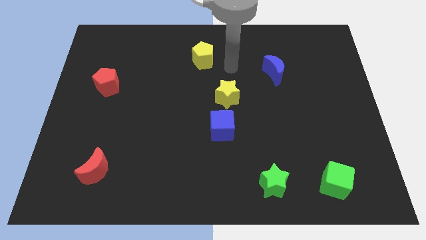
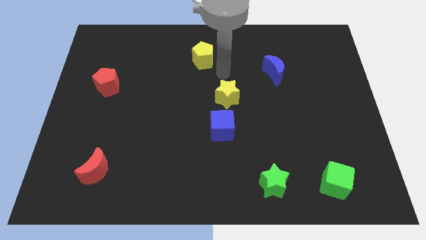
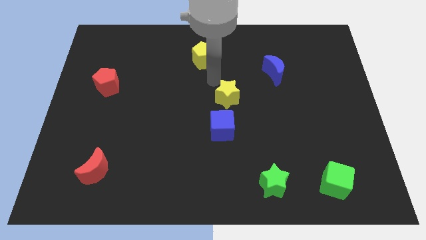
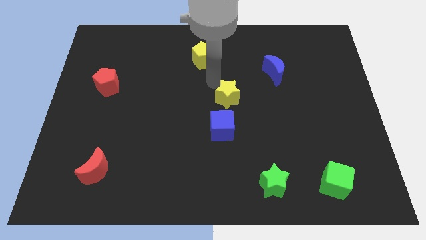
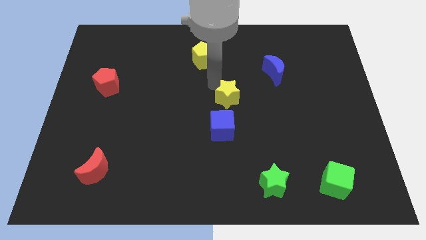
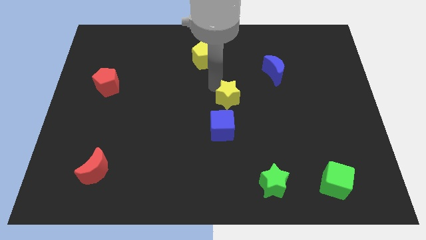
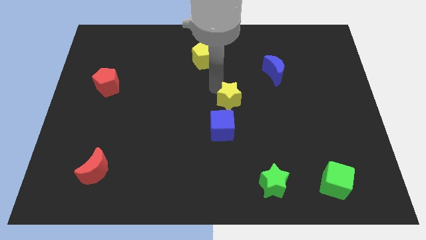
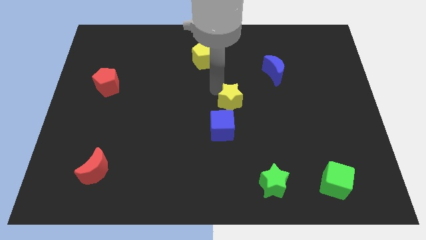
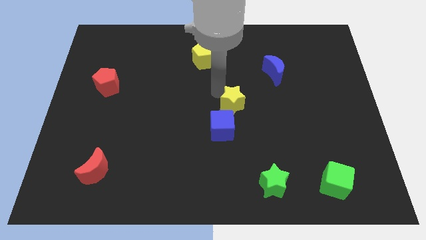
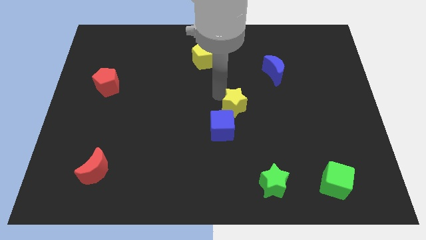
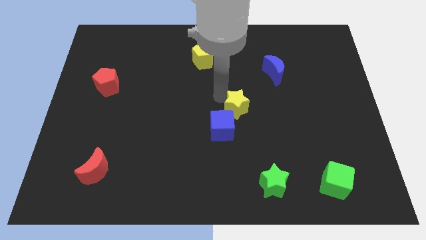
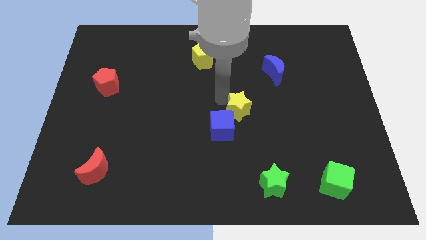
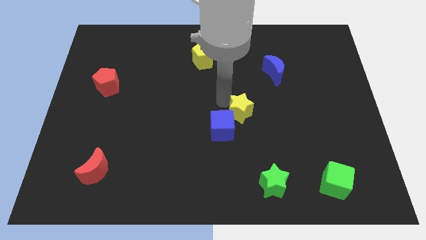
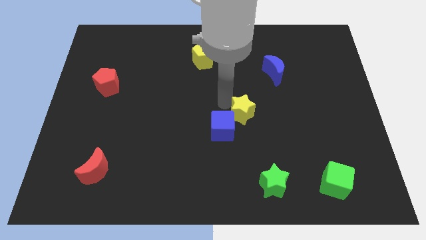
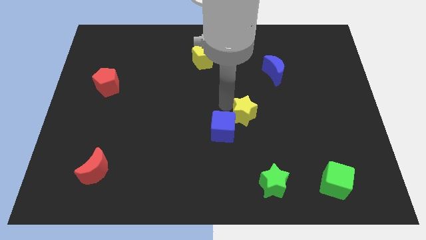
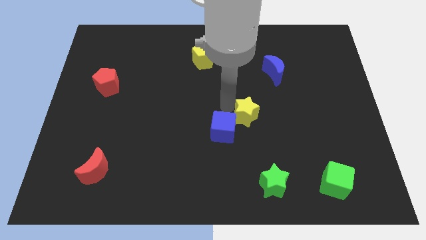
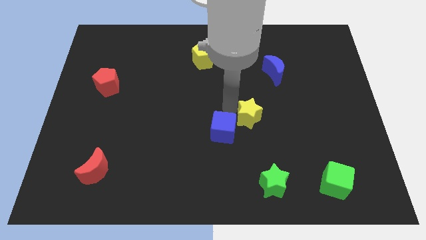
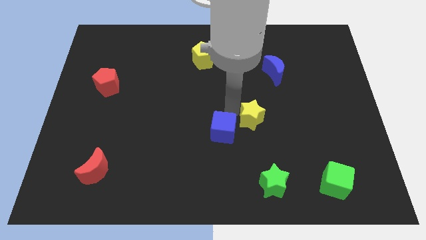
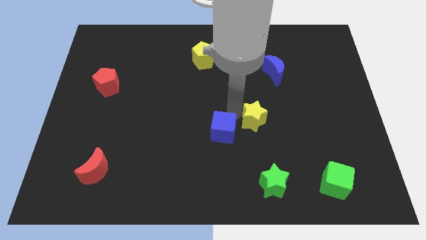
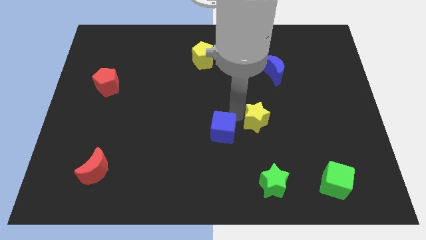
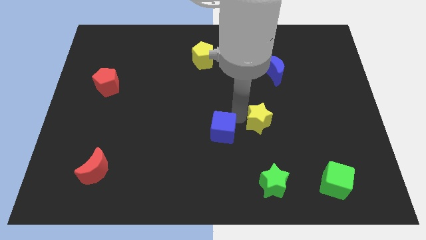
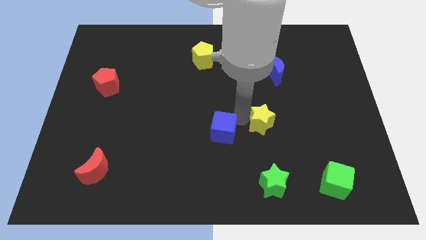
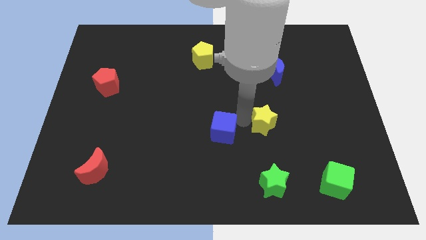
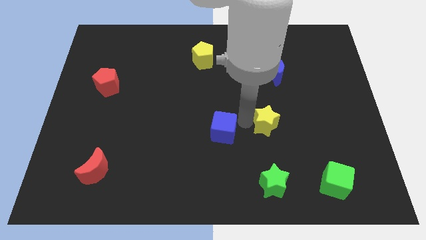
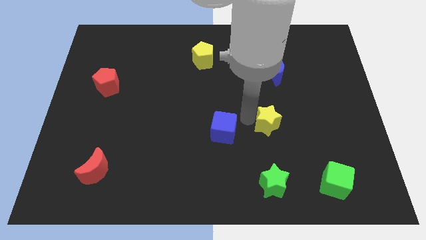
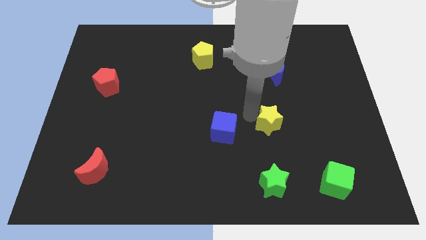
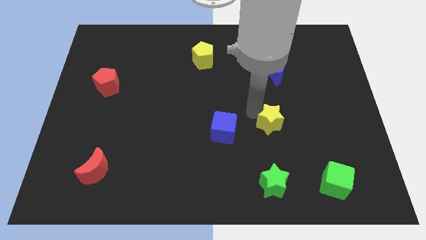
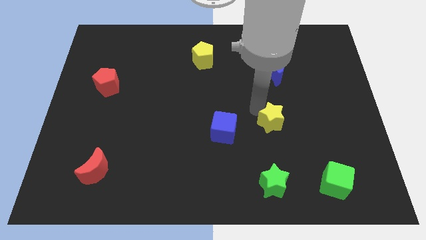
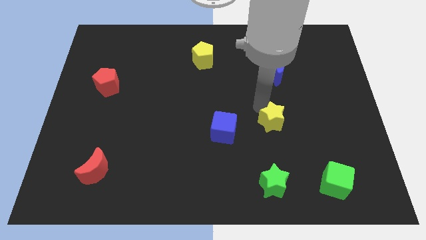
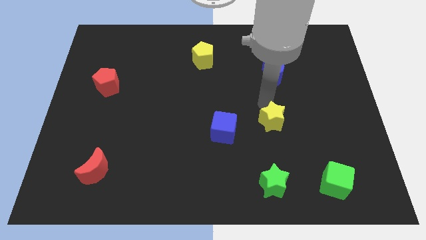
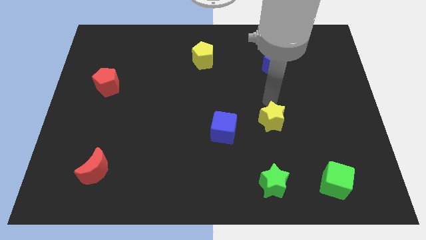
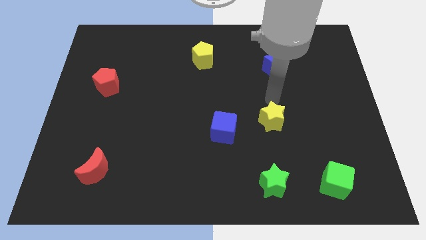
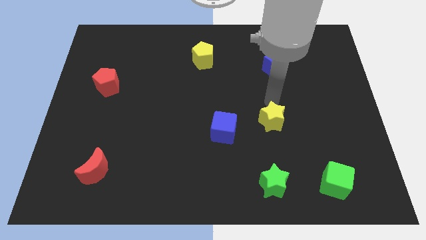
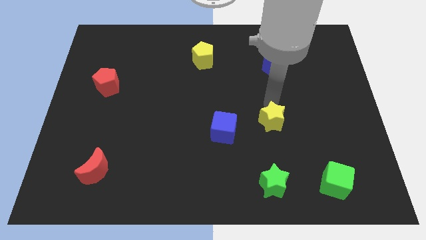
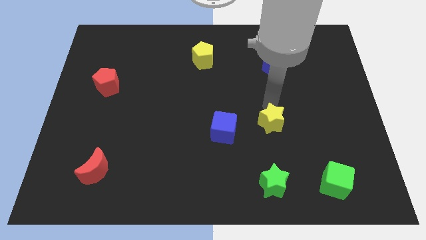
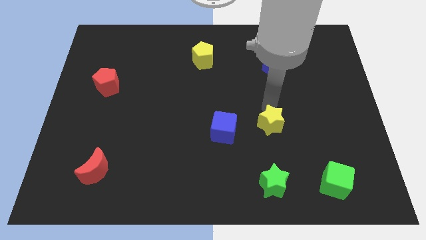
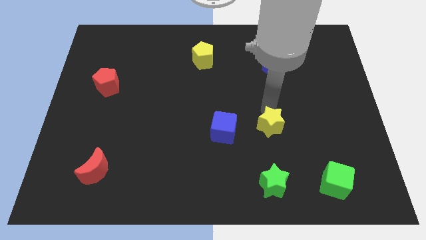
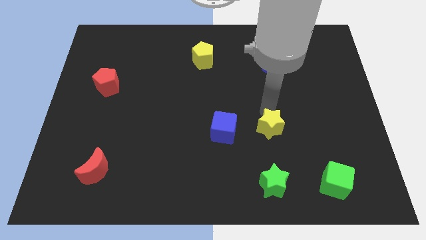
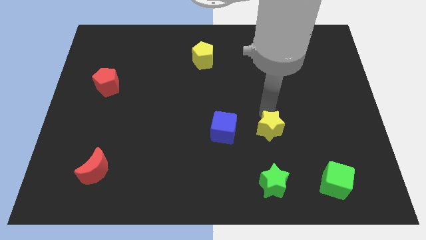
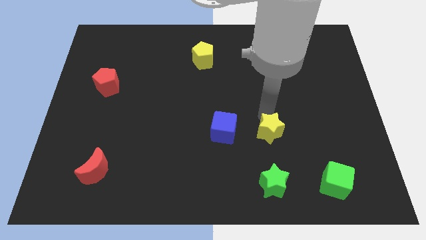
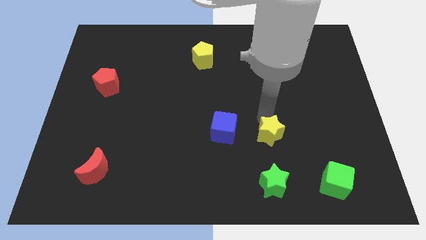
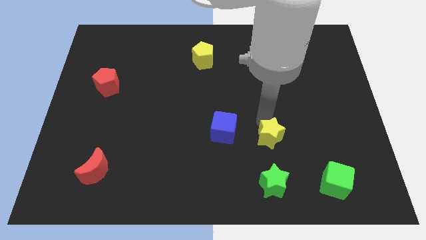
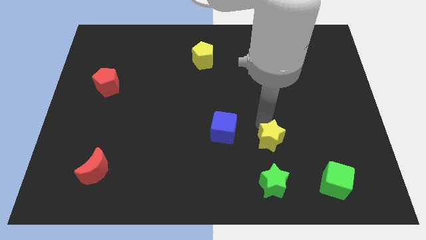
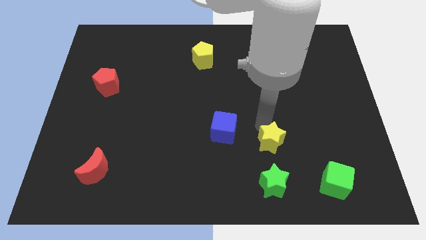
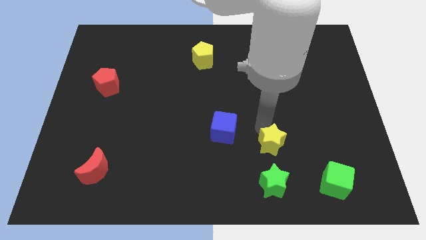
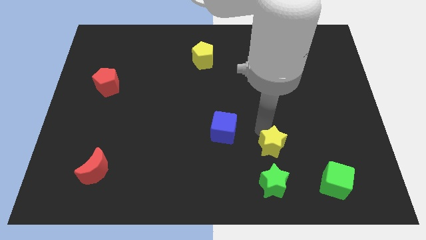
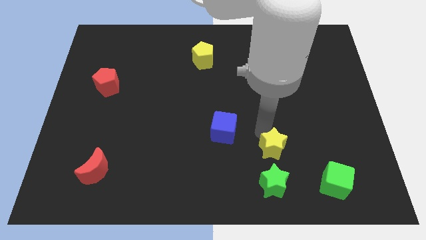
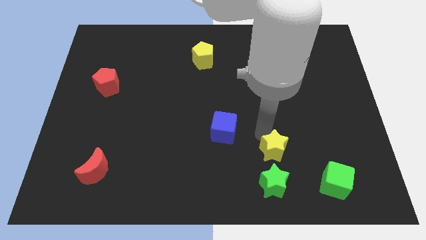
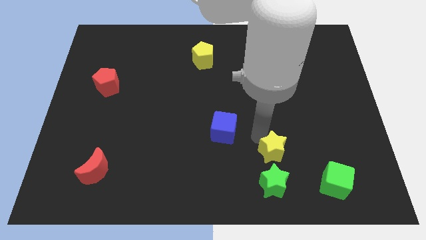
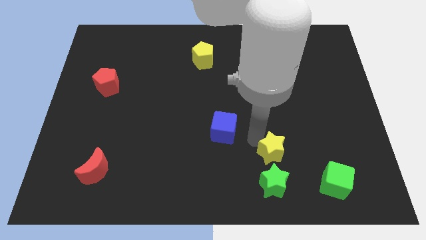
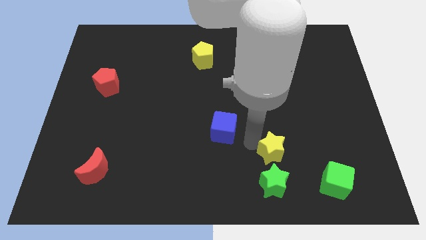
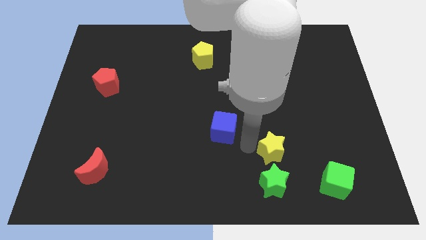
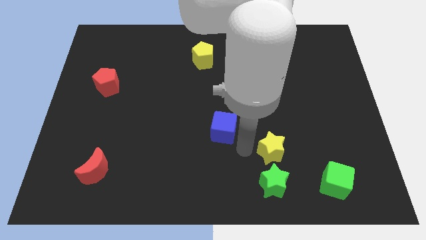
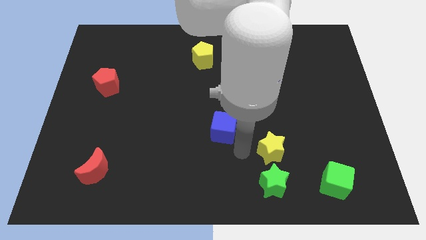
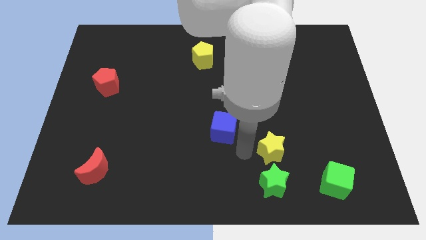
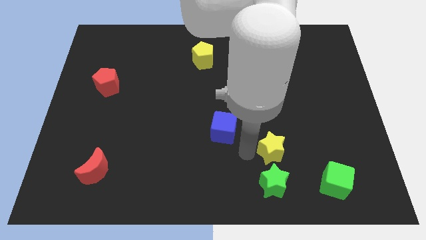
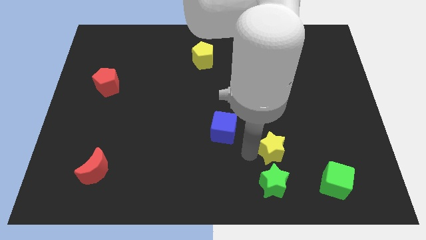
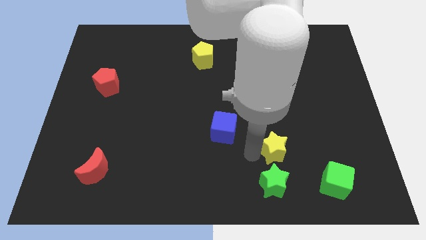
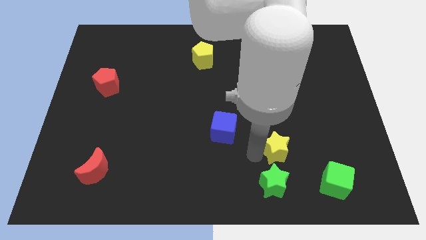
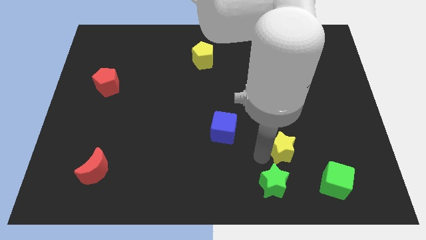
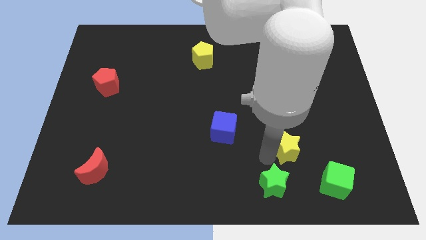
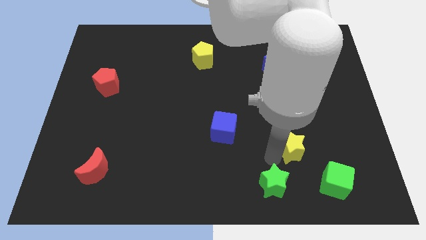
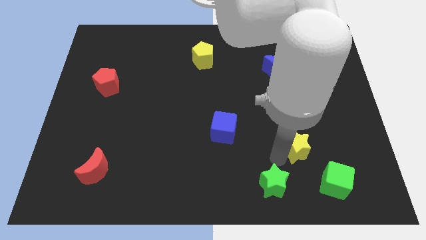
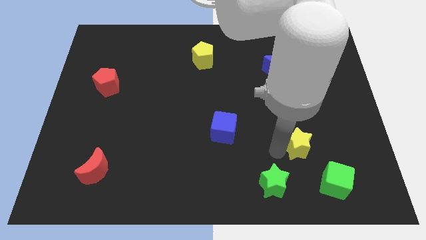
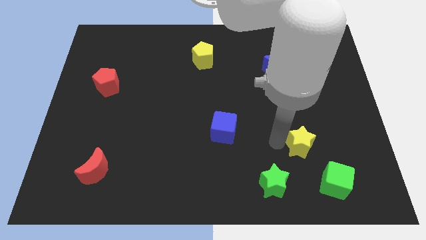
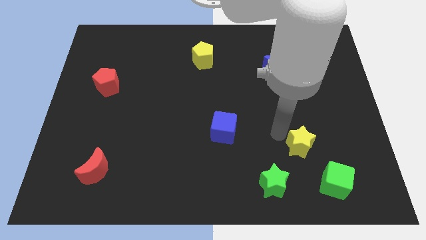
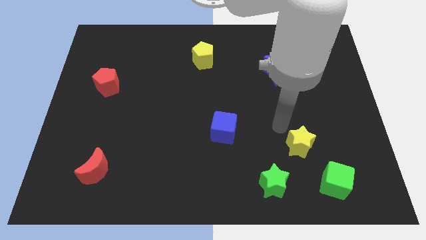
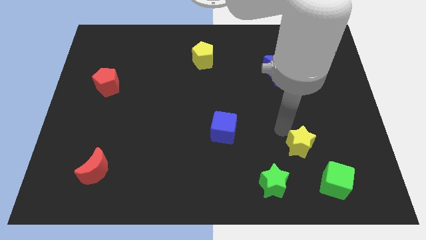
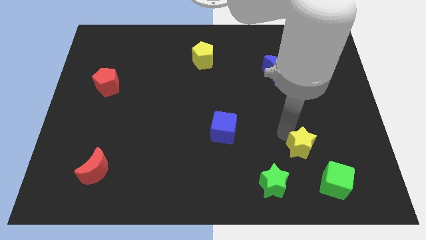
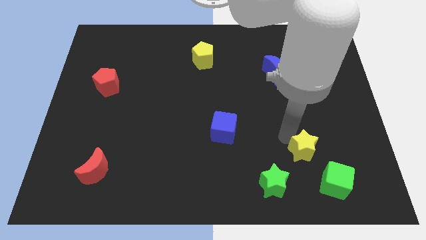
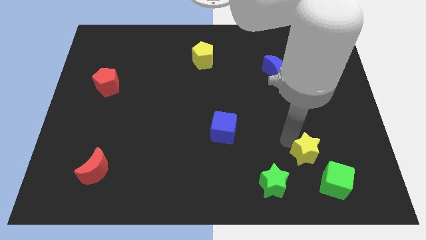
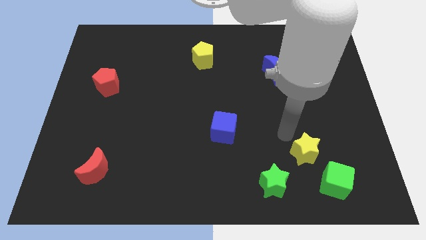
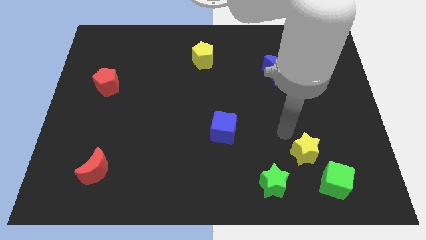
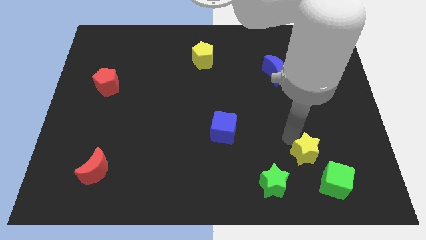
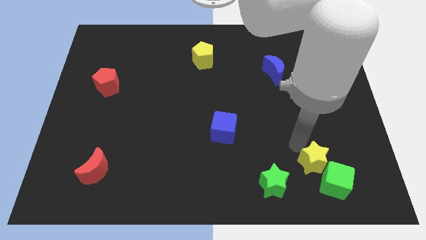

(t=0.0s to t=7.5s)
push the yellow star close to the green cube
